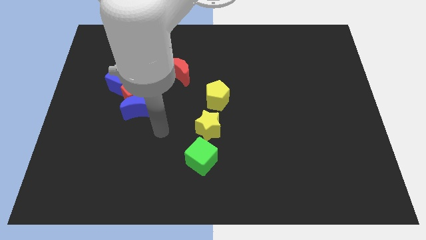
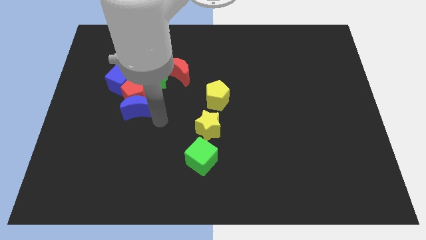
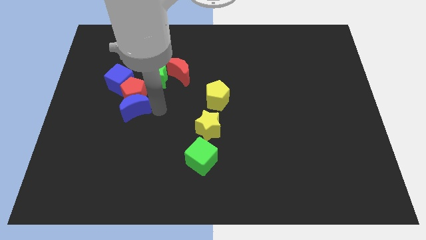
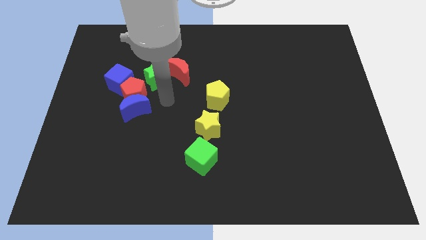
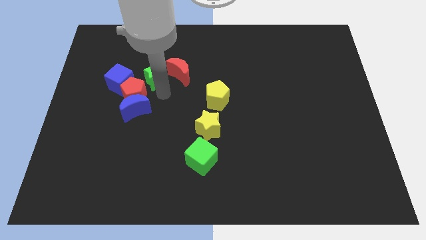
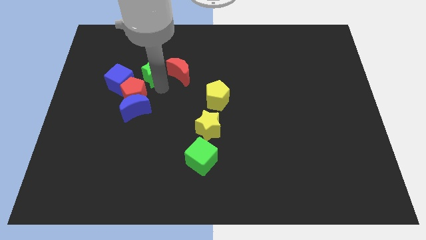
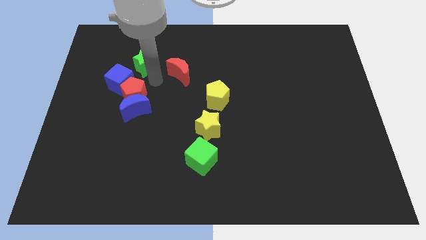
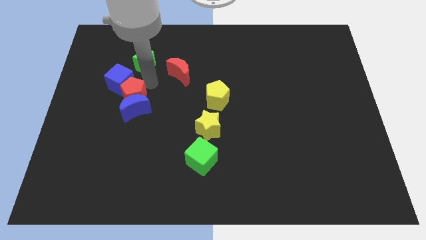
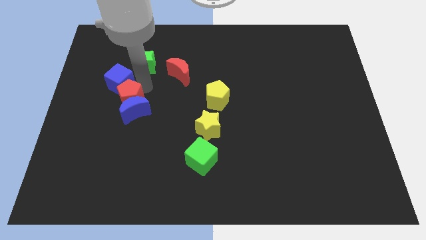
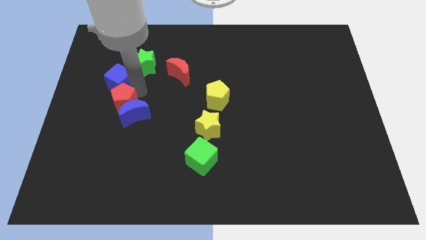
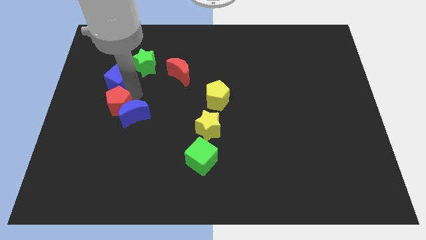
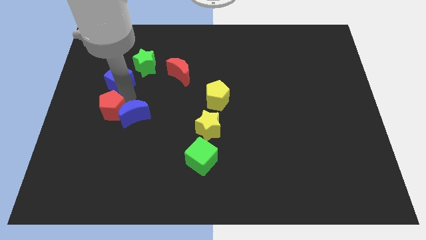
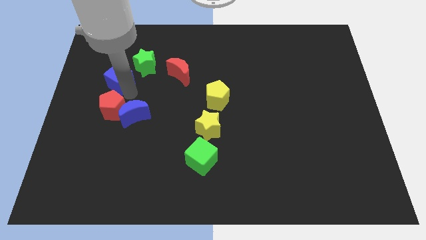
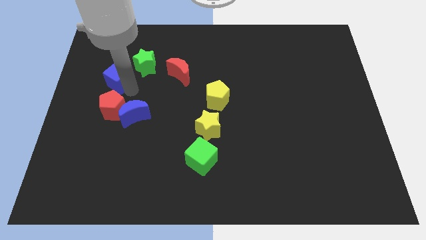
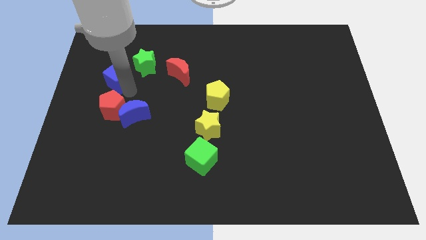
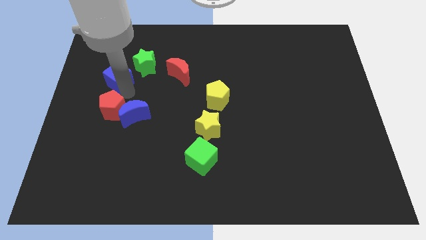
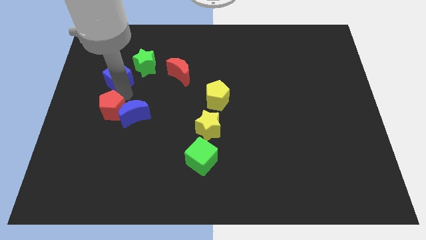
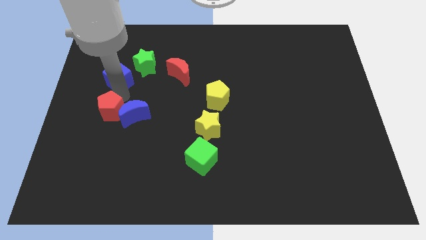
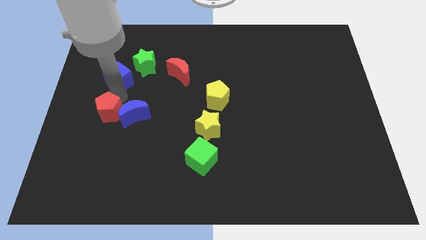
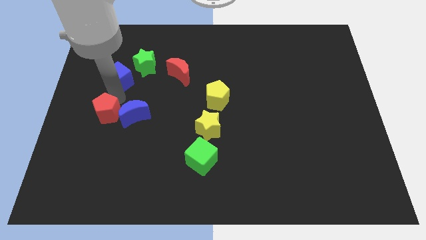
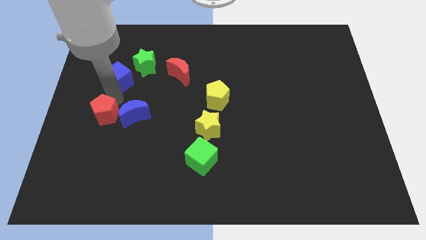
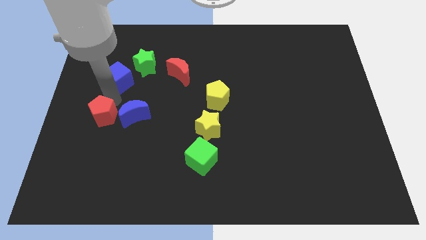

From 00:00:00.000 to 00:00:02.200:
pull the red pentagon apart from the clump

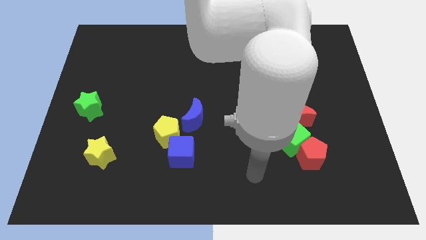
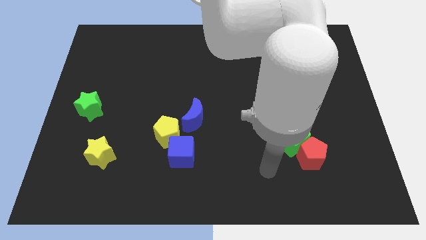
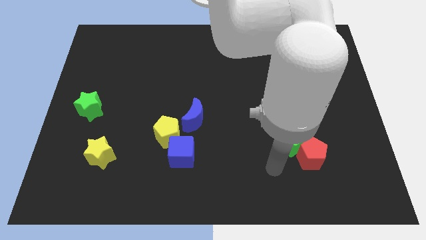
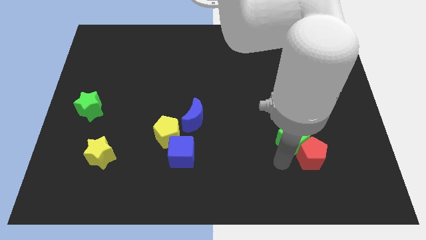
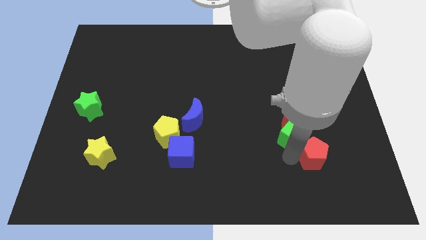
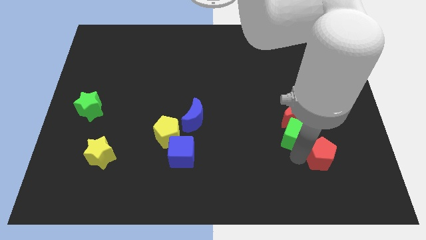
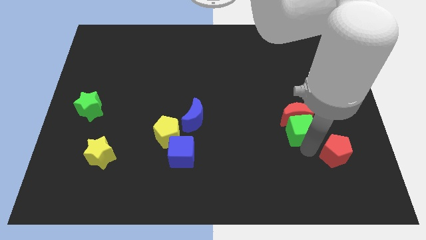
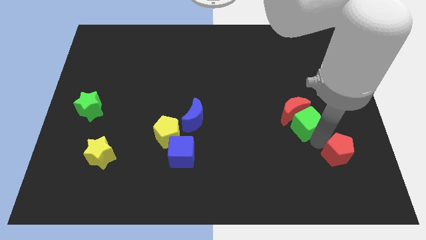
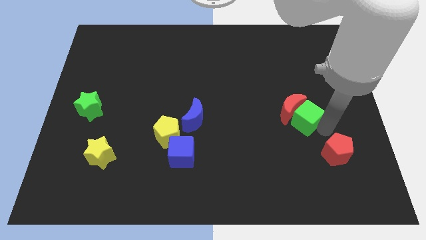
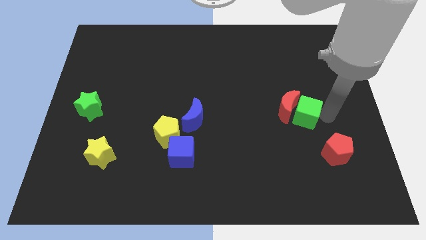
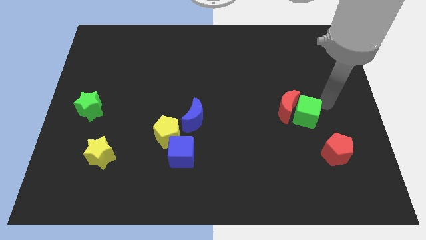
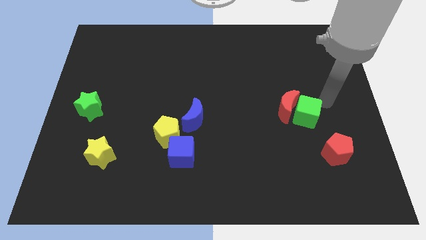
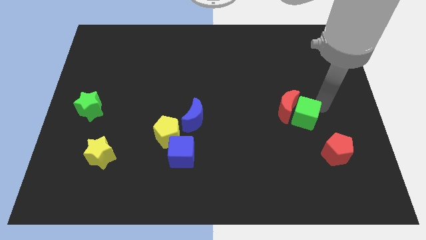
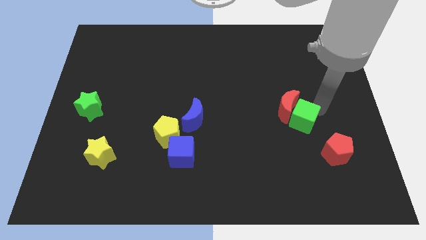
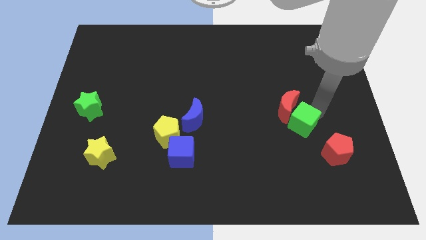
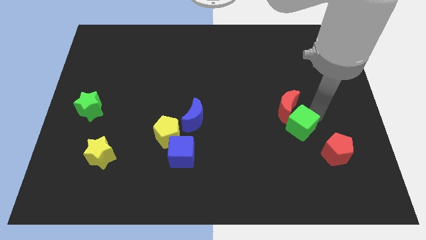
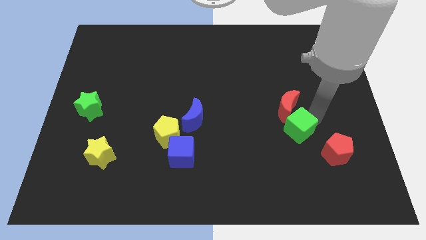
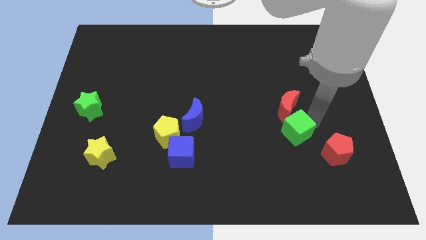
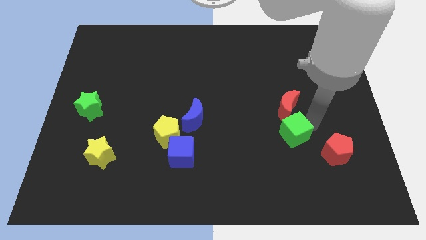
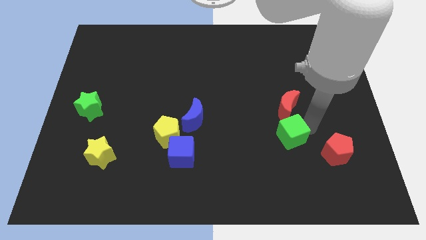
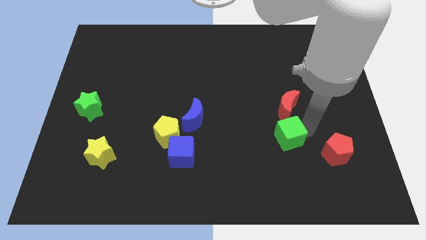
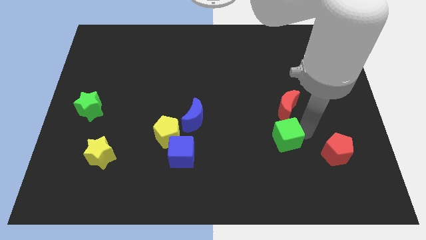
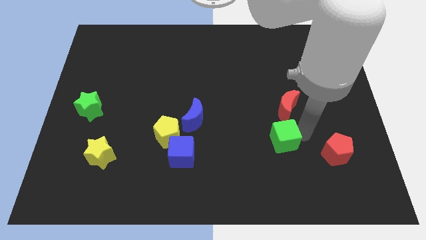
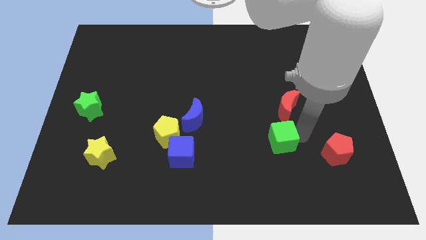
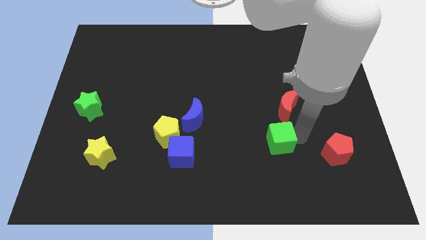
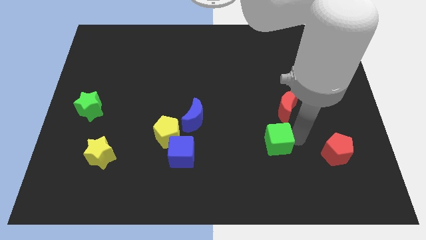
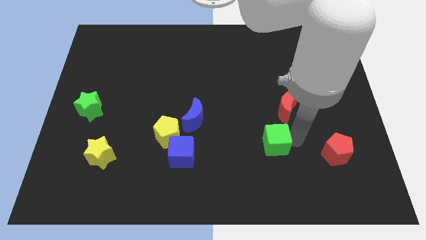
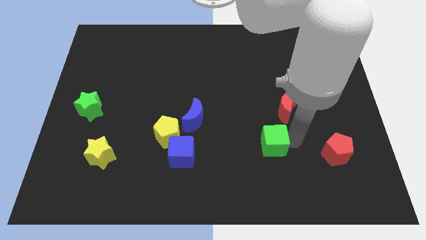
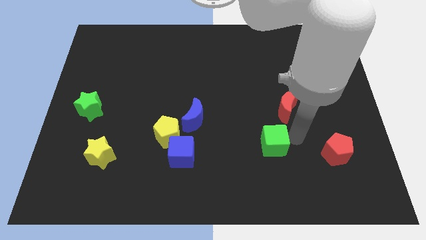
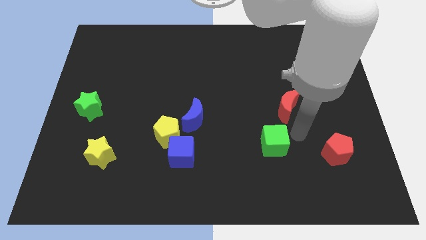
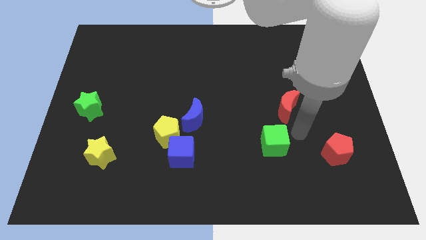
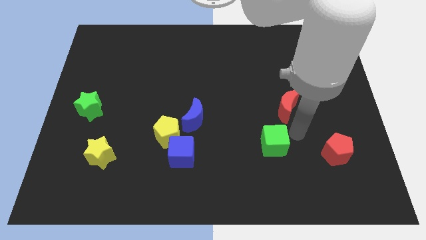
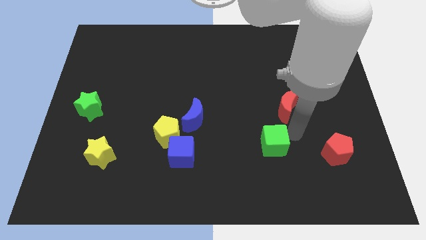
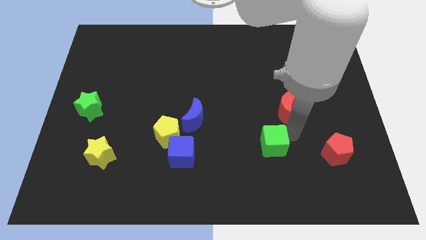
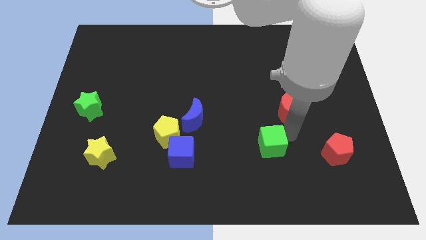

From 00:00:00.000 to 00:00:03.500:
move the green cube away from the red pentagon and red moon

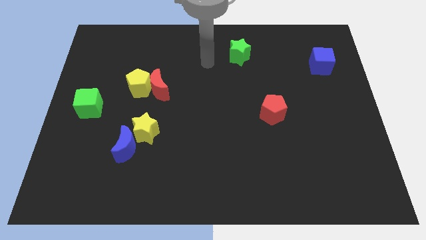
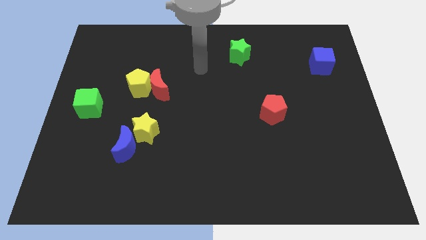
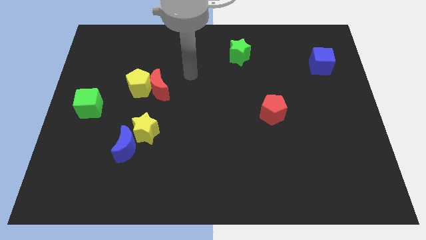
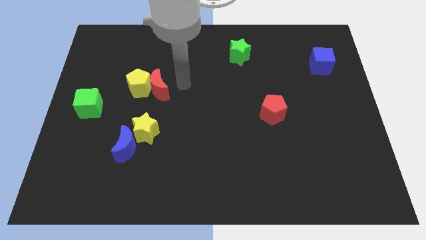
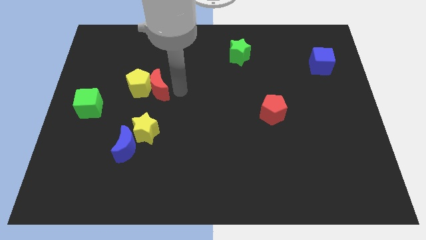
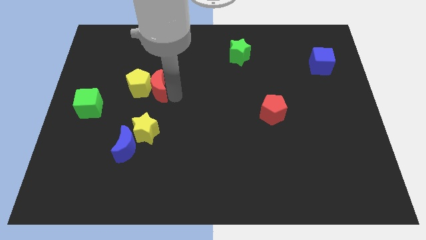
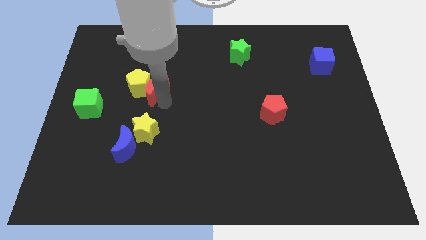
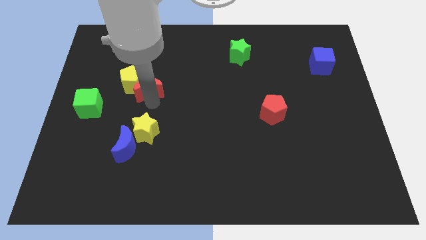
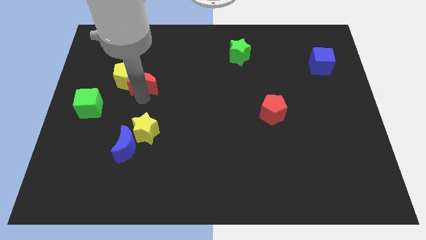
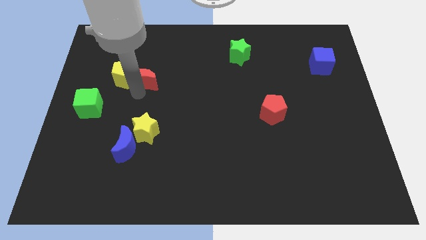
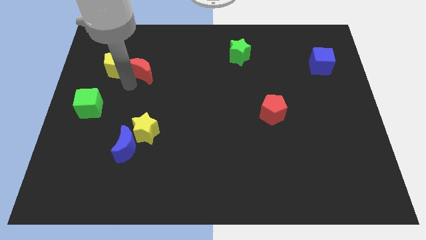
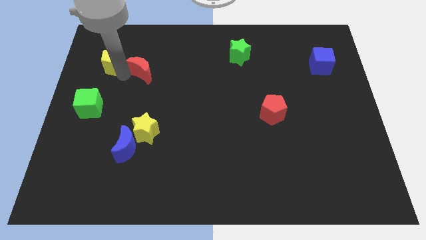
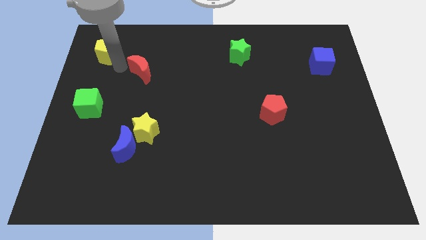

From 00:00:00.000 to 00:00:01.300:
pull the red moon apart from the yellow pentagon

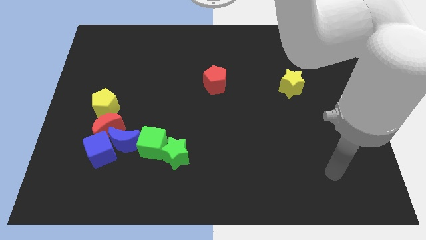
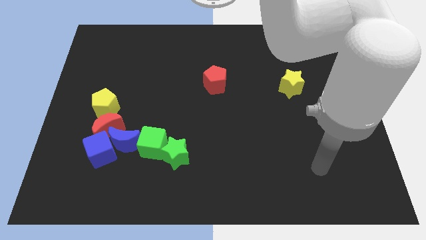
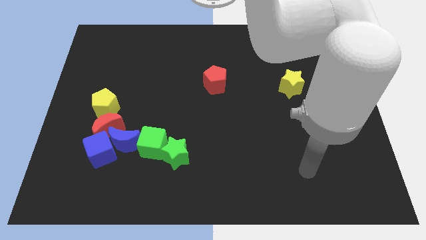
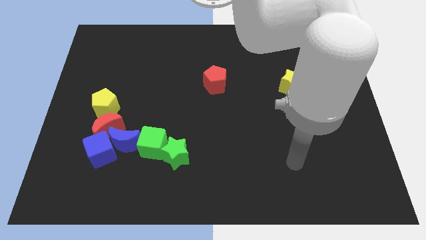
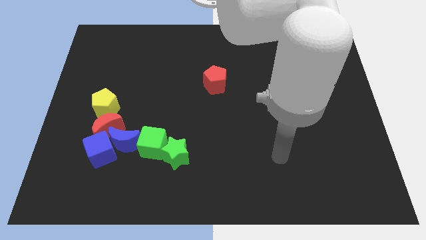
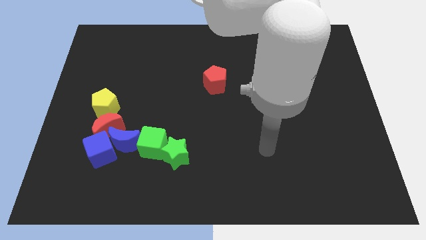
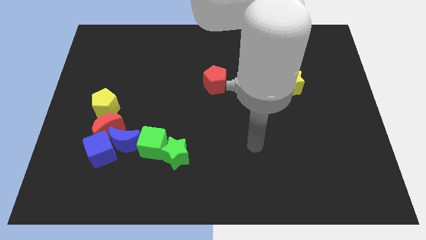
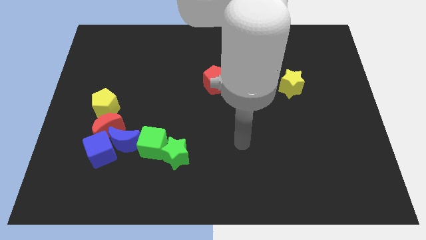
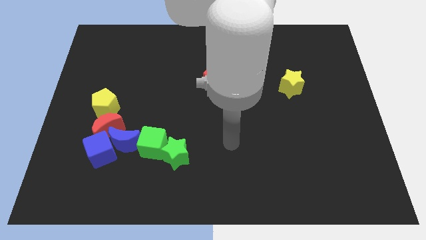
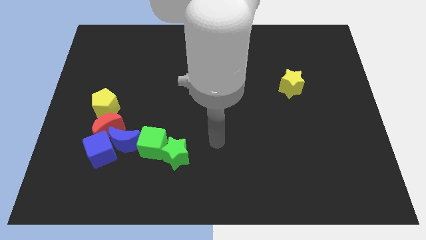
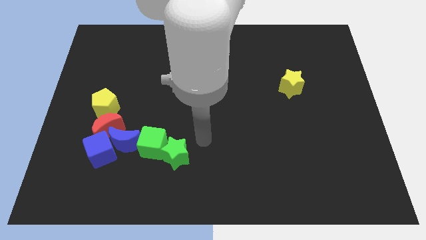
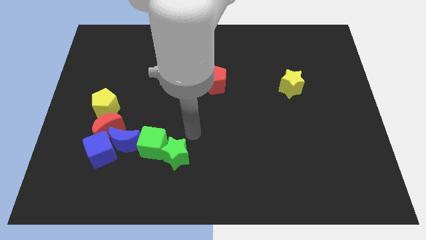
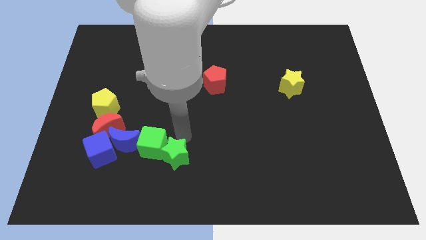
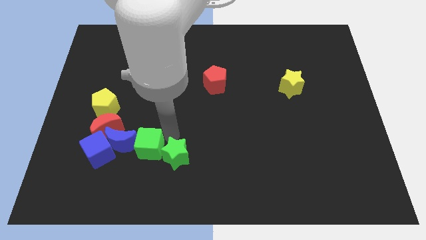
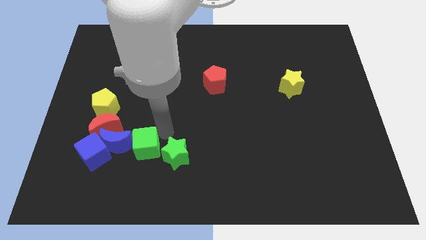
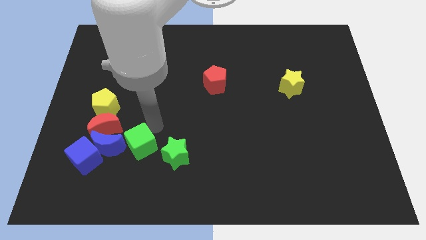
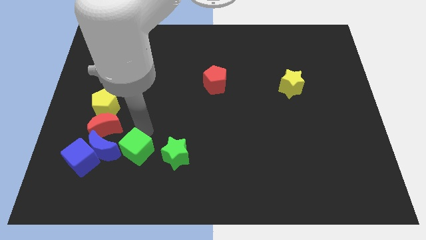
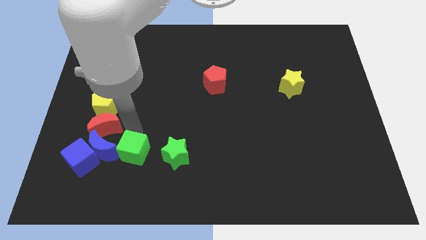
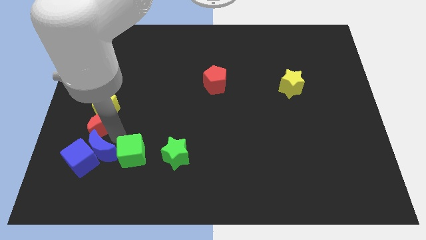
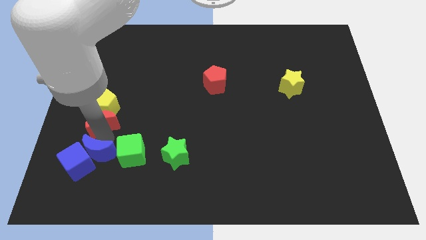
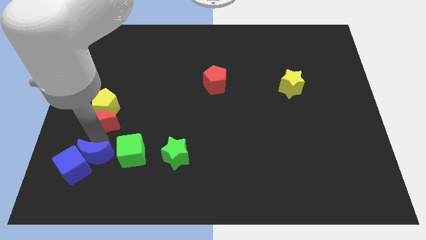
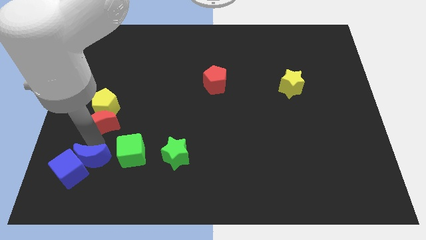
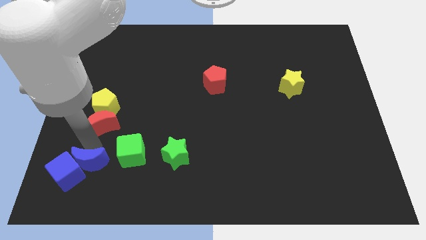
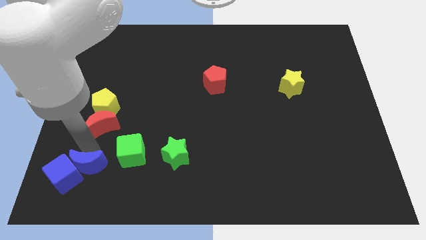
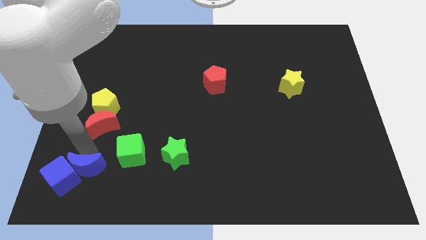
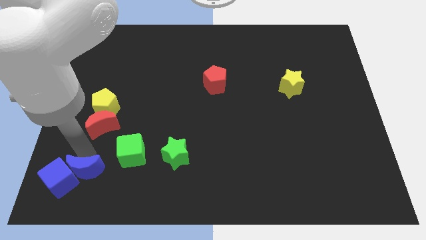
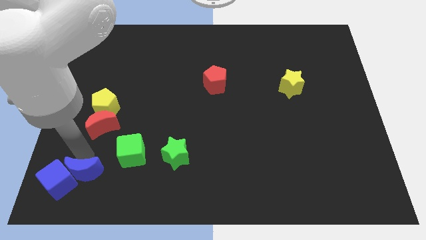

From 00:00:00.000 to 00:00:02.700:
pull the blue cube apart from the blue moon and red moon
